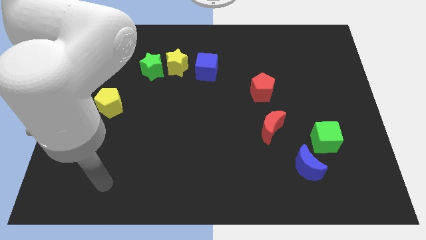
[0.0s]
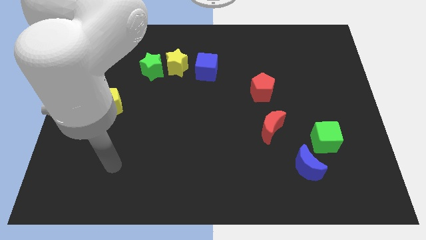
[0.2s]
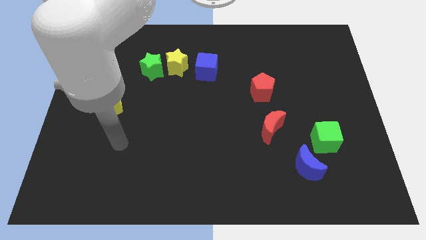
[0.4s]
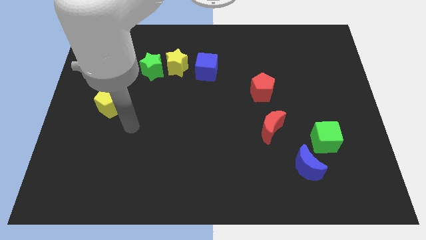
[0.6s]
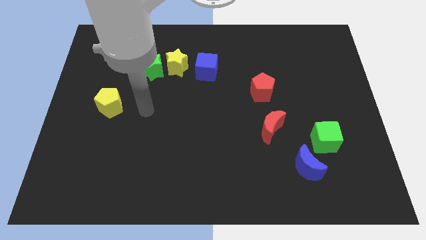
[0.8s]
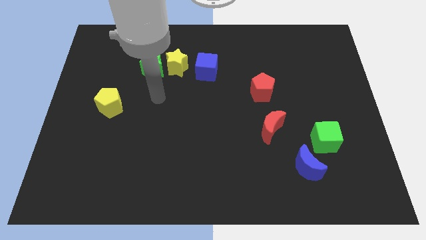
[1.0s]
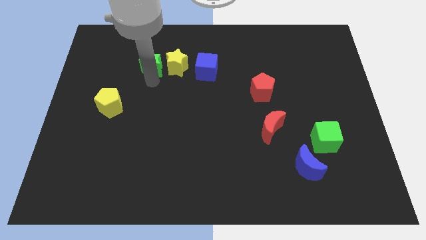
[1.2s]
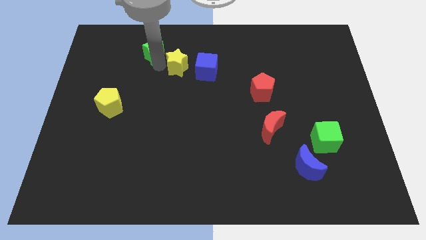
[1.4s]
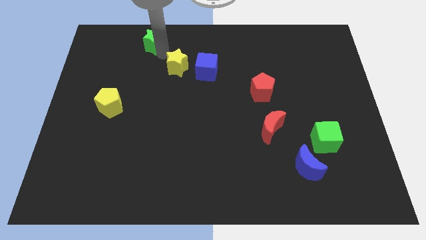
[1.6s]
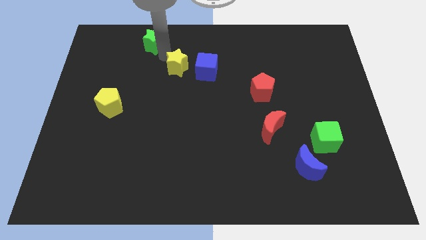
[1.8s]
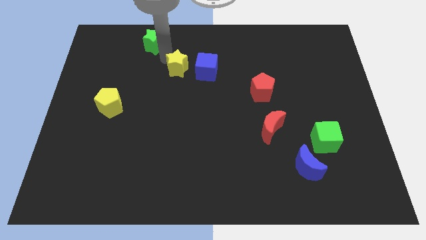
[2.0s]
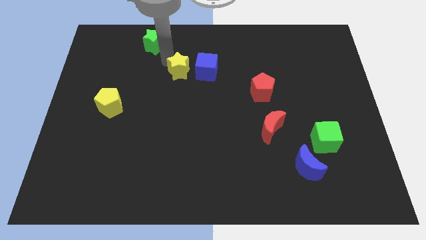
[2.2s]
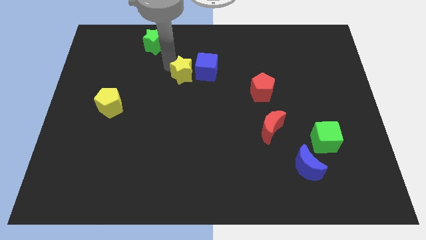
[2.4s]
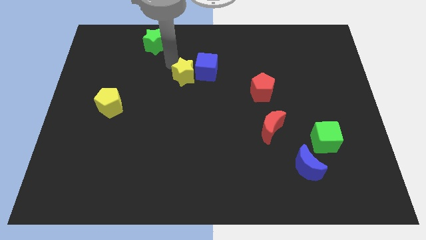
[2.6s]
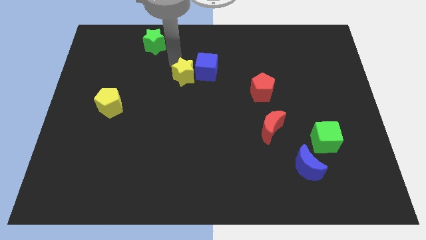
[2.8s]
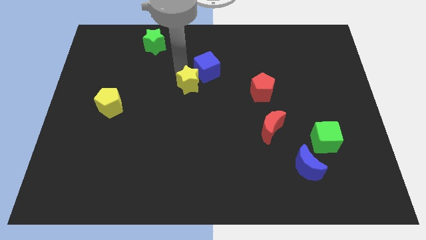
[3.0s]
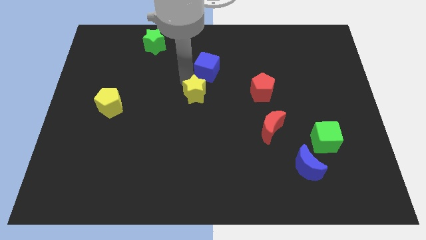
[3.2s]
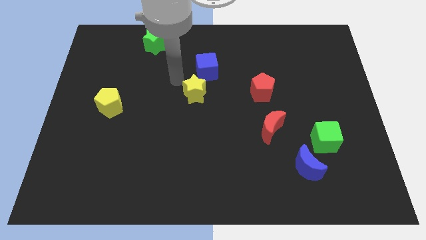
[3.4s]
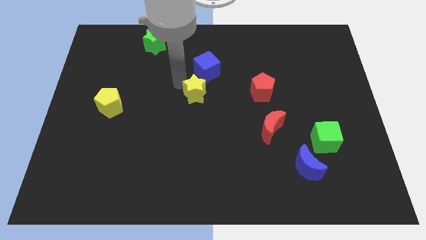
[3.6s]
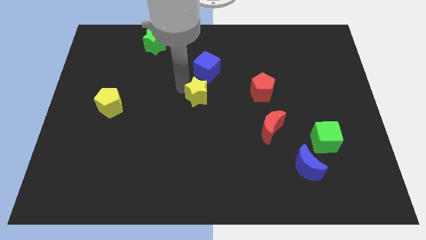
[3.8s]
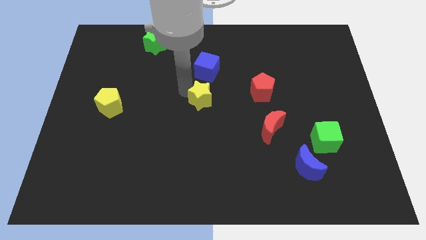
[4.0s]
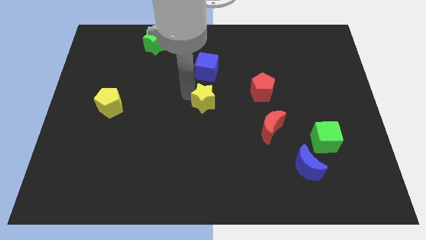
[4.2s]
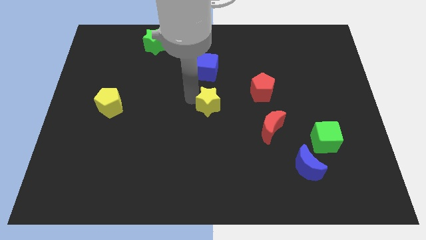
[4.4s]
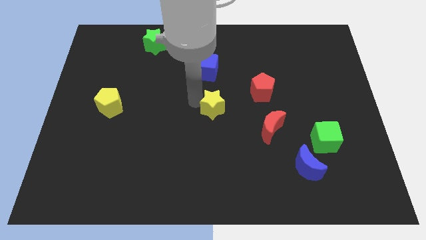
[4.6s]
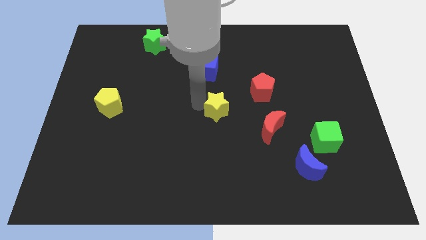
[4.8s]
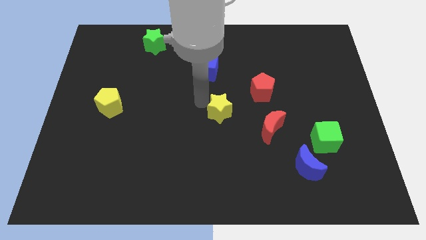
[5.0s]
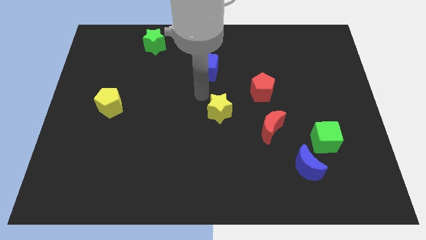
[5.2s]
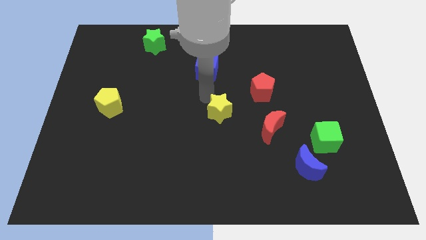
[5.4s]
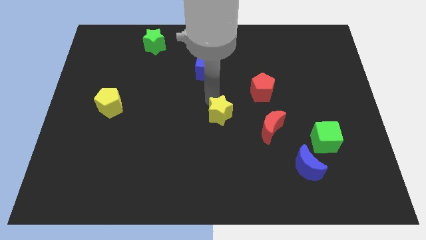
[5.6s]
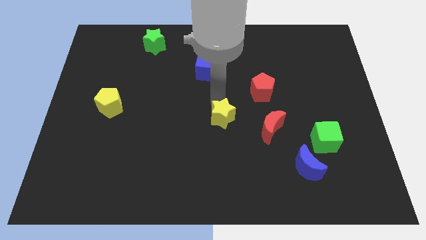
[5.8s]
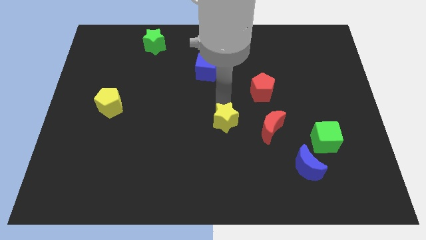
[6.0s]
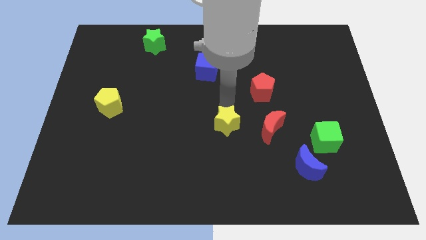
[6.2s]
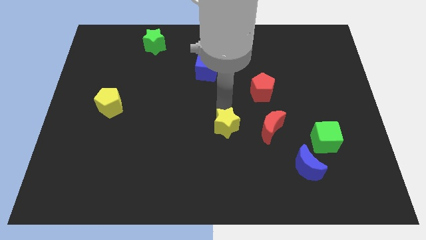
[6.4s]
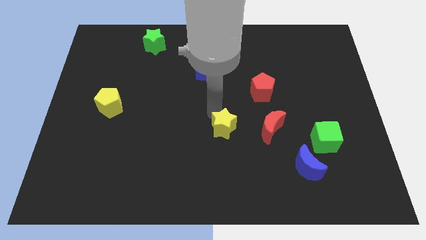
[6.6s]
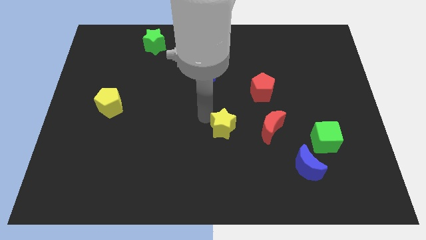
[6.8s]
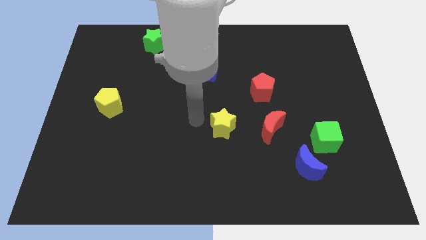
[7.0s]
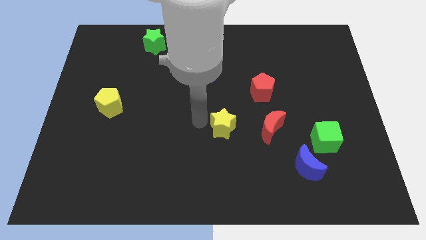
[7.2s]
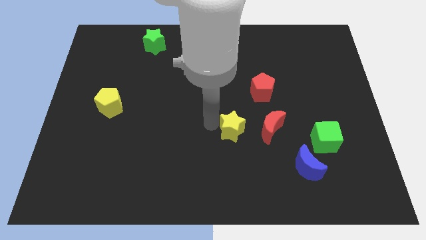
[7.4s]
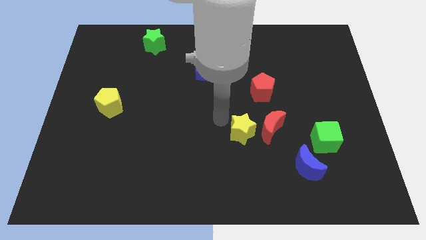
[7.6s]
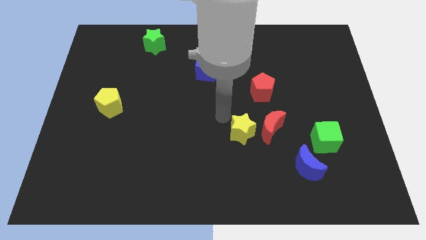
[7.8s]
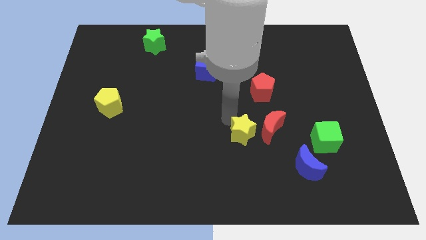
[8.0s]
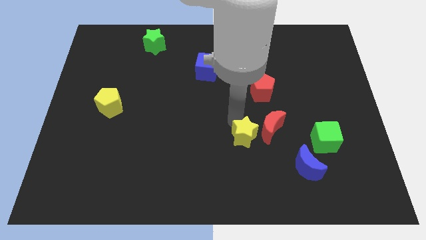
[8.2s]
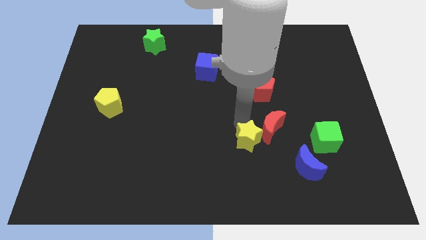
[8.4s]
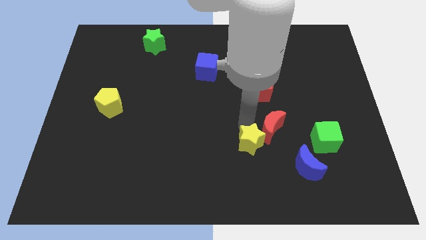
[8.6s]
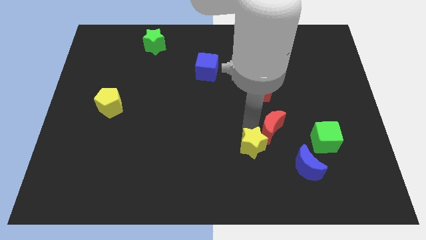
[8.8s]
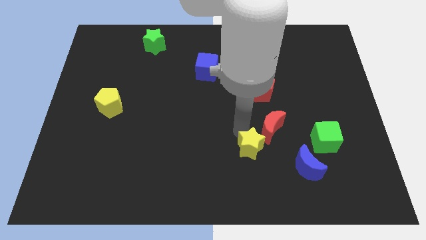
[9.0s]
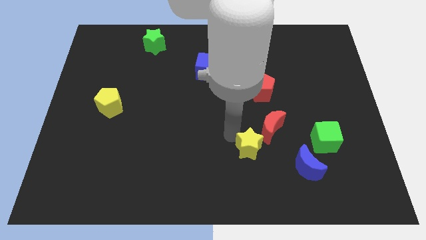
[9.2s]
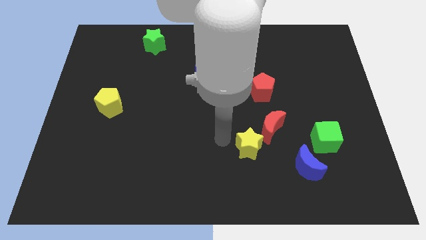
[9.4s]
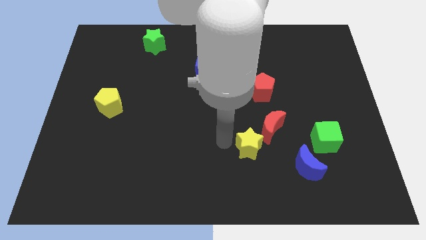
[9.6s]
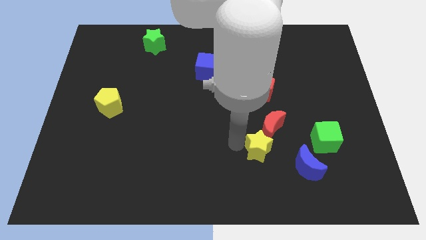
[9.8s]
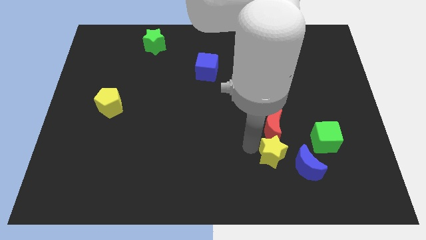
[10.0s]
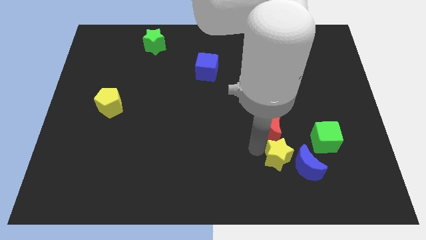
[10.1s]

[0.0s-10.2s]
push the yellow star next to the blue moon

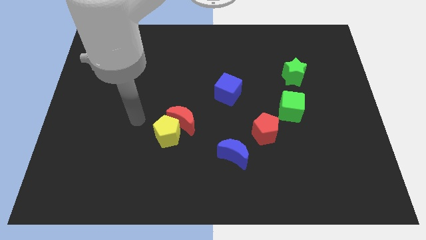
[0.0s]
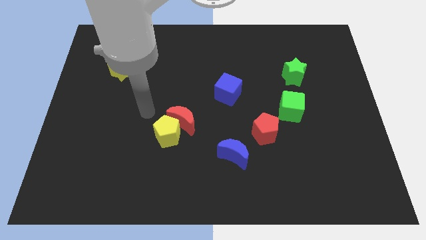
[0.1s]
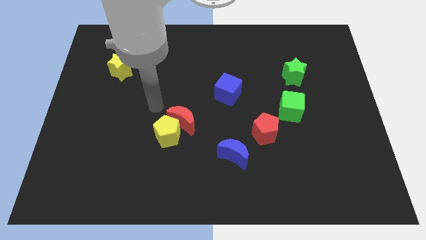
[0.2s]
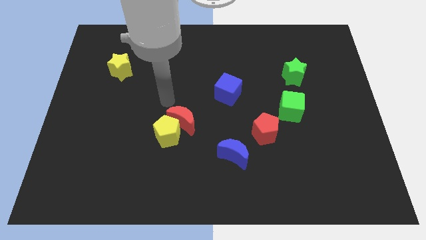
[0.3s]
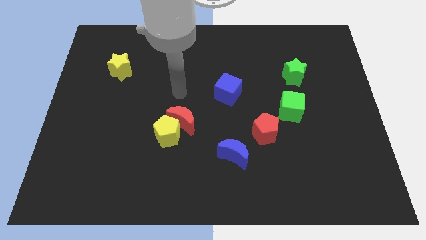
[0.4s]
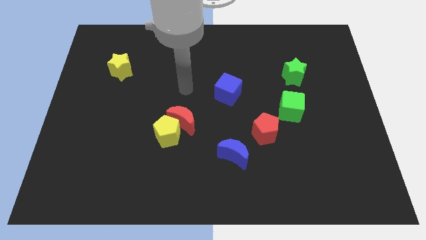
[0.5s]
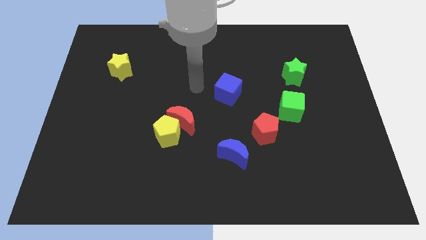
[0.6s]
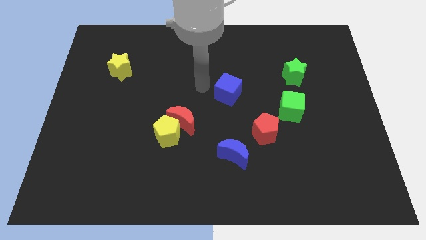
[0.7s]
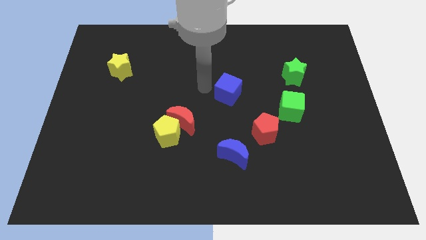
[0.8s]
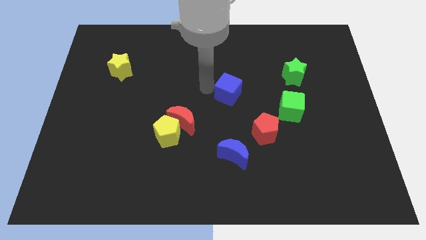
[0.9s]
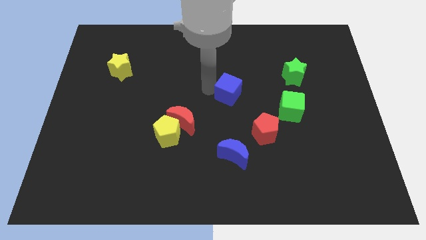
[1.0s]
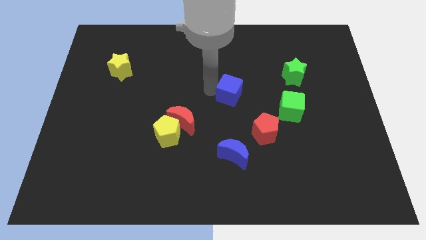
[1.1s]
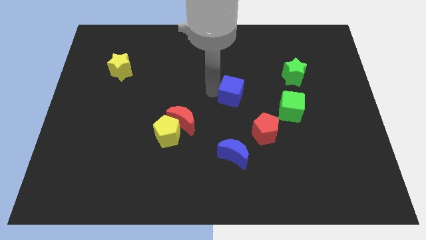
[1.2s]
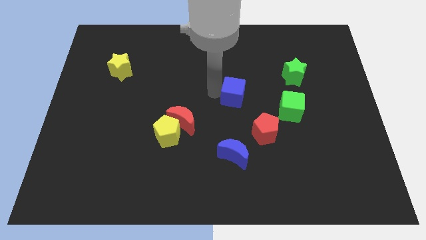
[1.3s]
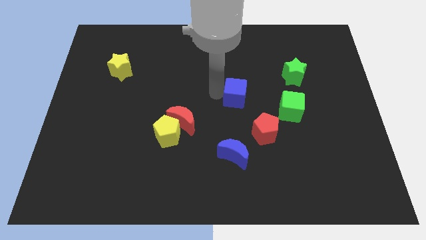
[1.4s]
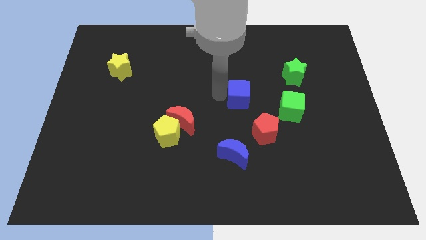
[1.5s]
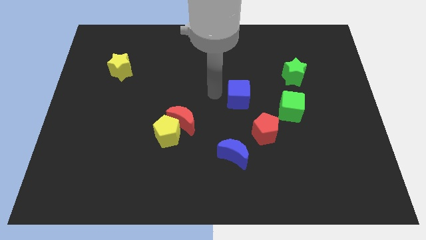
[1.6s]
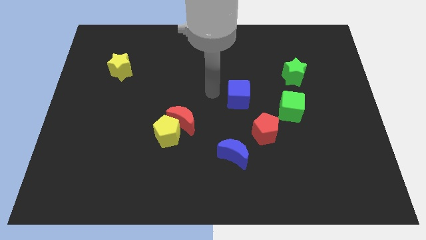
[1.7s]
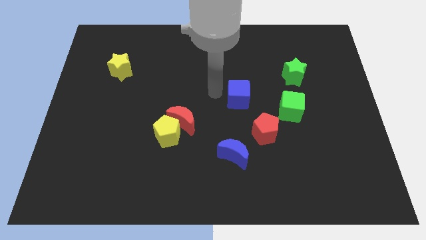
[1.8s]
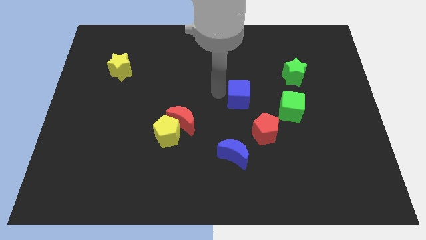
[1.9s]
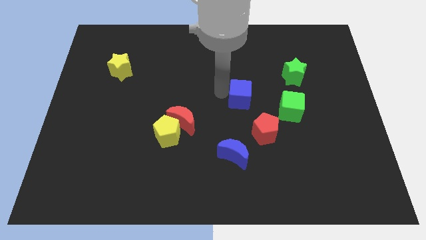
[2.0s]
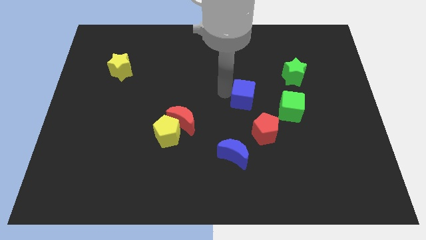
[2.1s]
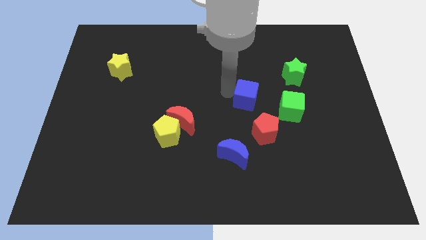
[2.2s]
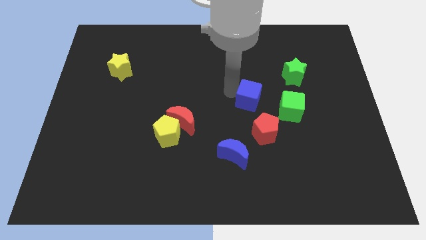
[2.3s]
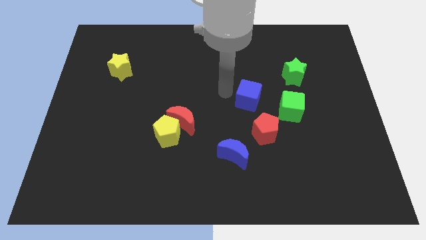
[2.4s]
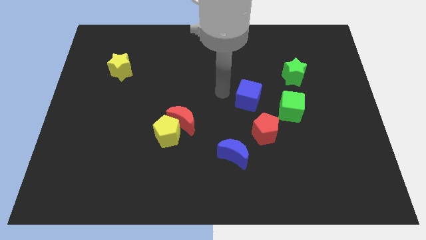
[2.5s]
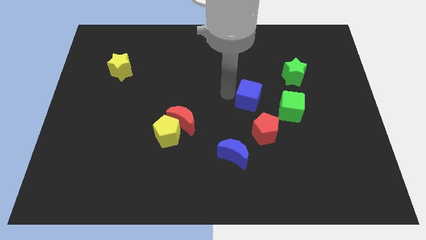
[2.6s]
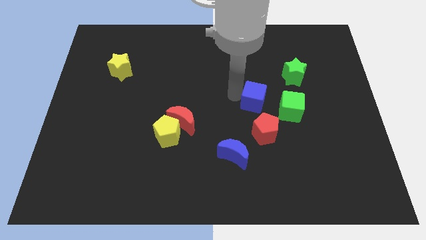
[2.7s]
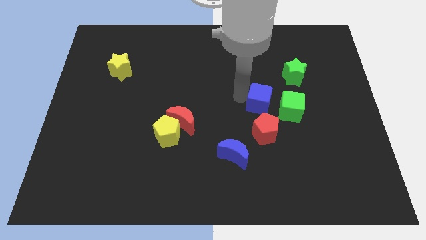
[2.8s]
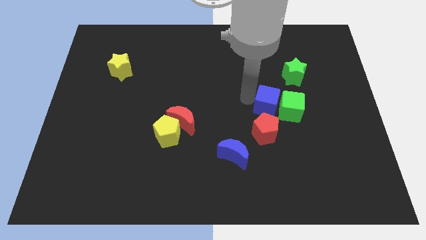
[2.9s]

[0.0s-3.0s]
slide the blue cube next to the green cube
